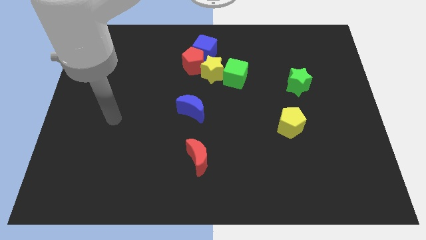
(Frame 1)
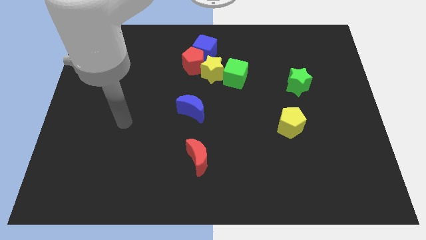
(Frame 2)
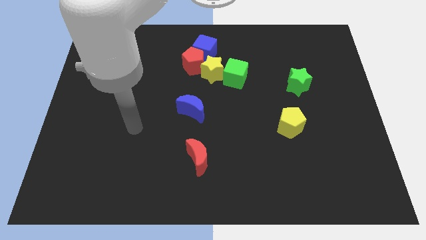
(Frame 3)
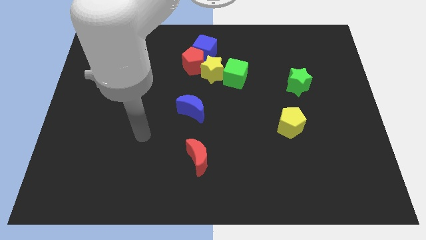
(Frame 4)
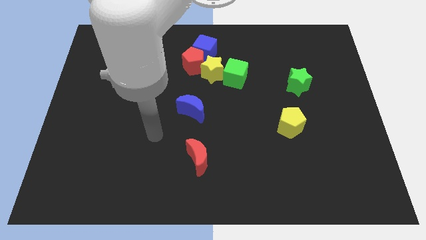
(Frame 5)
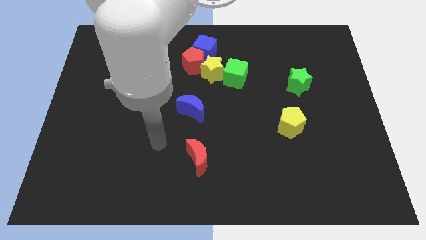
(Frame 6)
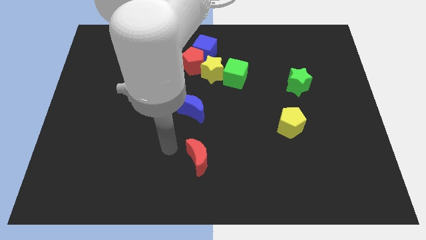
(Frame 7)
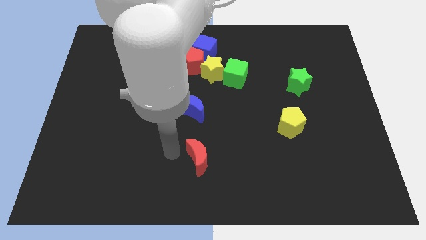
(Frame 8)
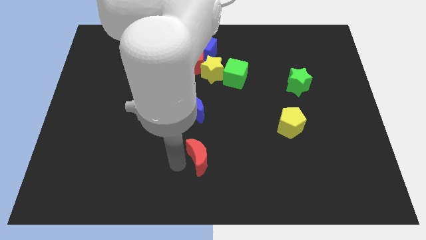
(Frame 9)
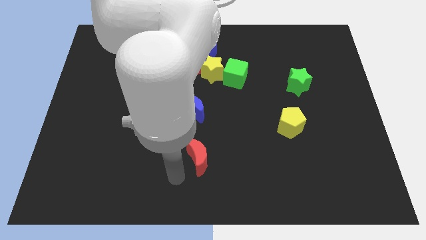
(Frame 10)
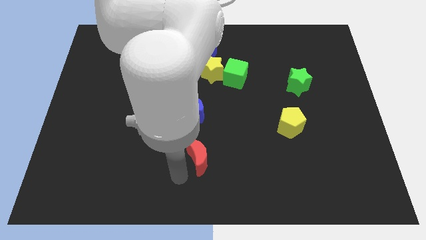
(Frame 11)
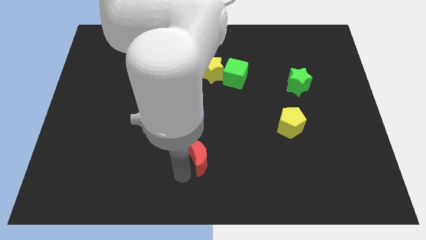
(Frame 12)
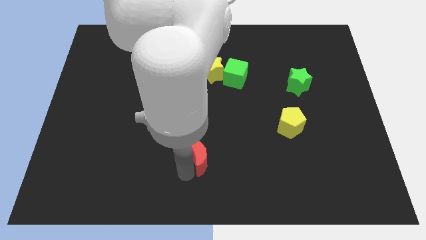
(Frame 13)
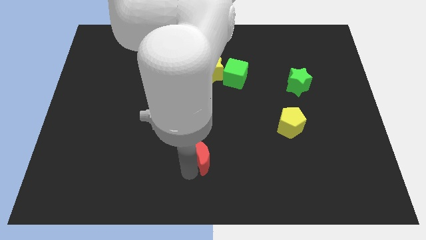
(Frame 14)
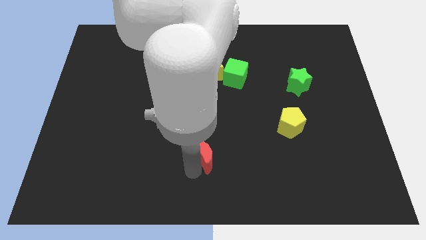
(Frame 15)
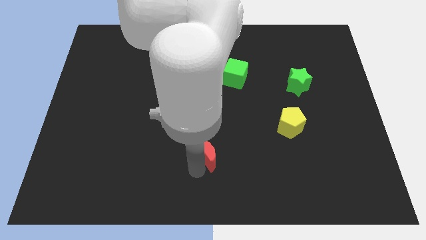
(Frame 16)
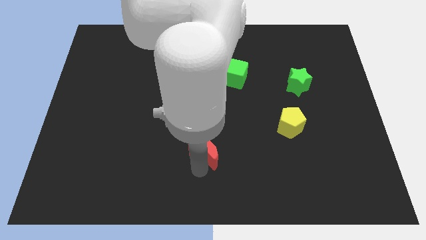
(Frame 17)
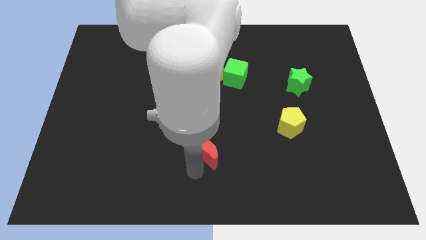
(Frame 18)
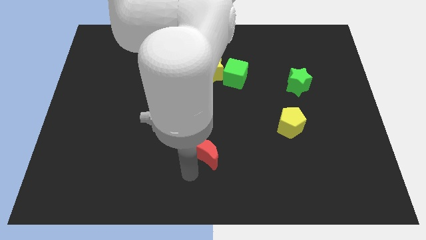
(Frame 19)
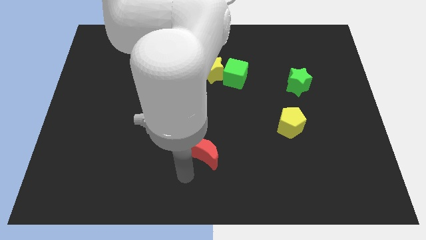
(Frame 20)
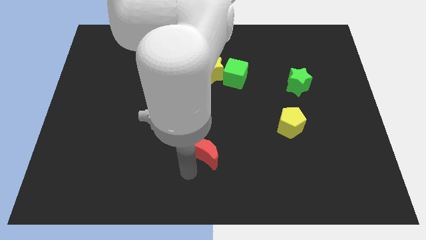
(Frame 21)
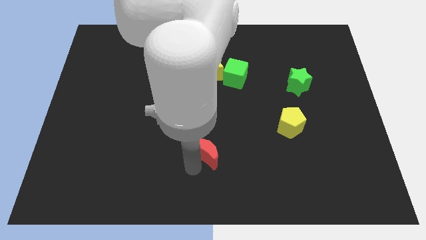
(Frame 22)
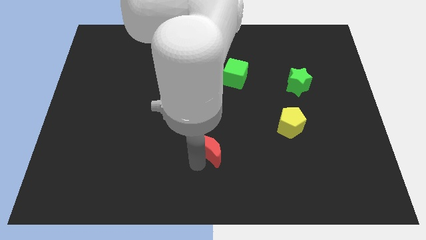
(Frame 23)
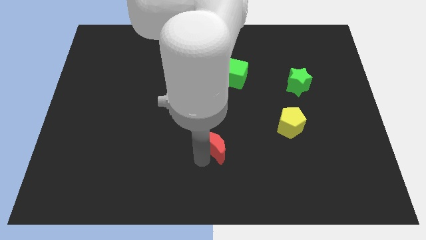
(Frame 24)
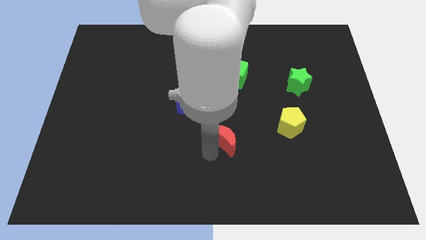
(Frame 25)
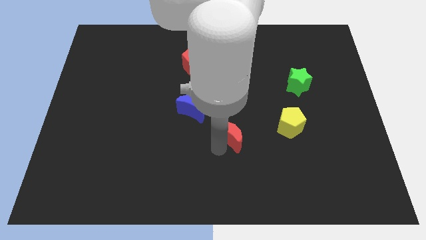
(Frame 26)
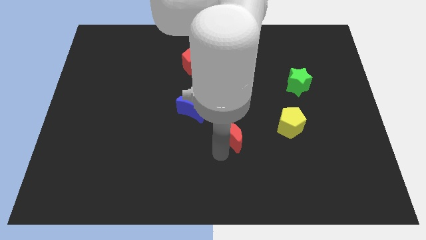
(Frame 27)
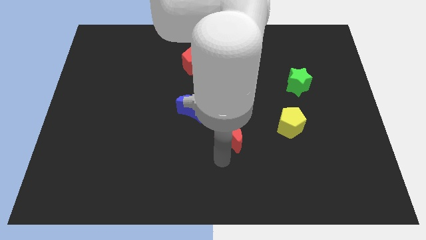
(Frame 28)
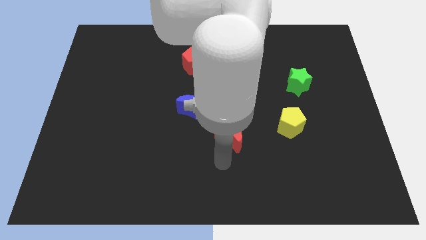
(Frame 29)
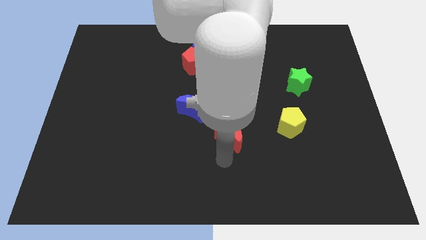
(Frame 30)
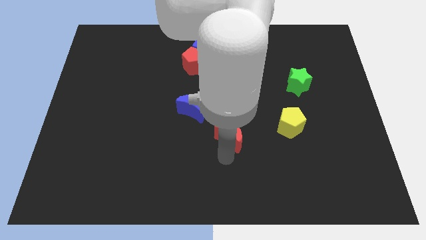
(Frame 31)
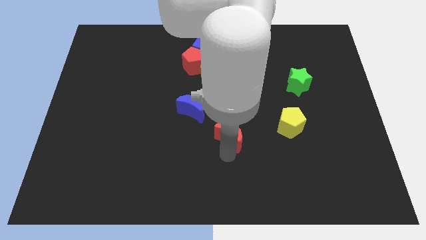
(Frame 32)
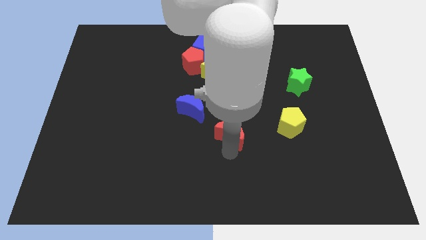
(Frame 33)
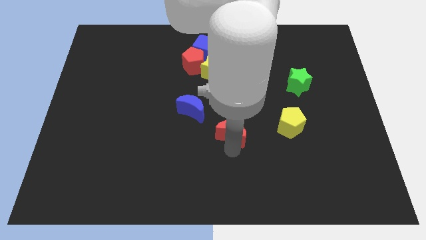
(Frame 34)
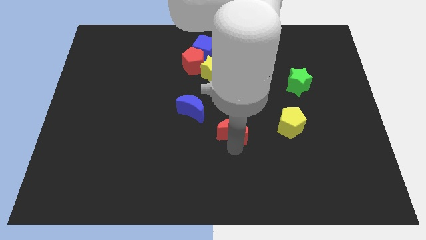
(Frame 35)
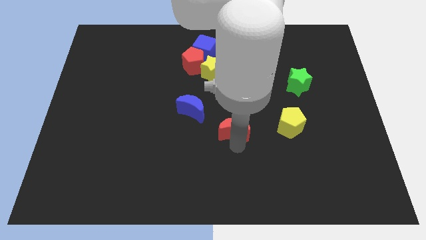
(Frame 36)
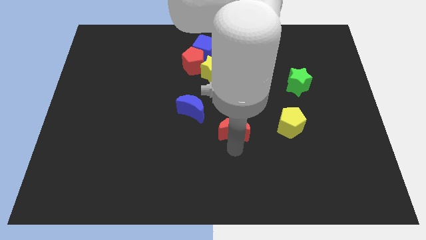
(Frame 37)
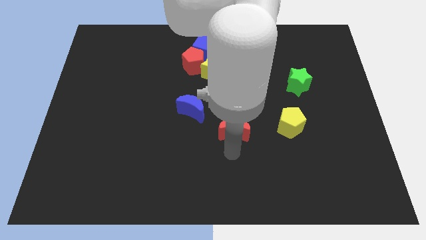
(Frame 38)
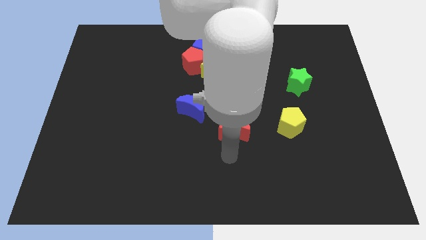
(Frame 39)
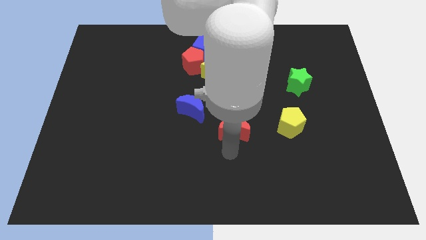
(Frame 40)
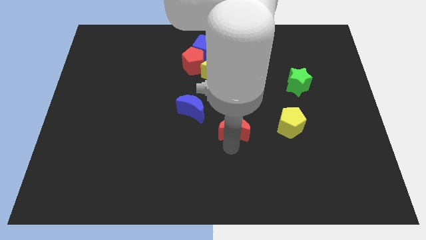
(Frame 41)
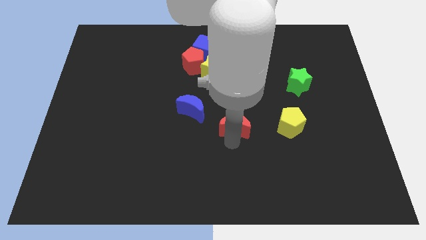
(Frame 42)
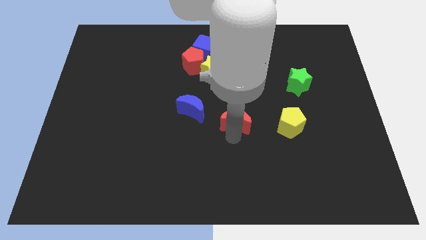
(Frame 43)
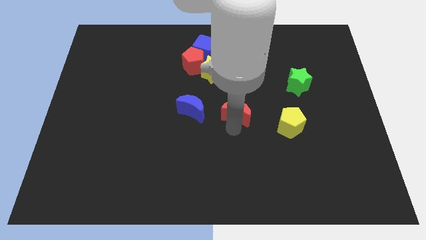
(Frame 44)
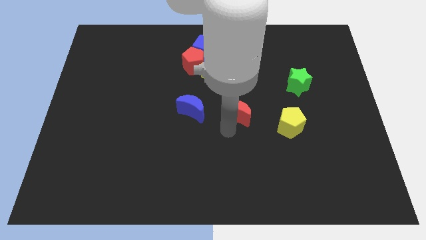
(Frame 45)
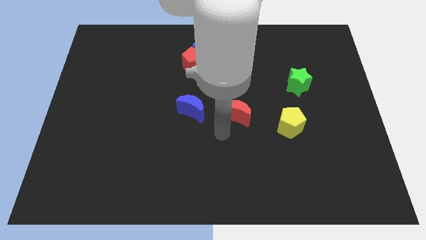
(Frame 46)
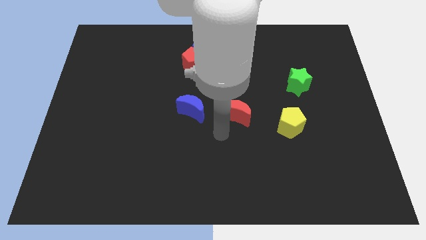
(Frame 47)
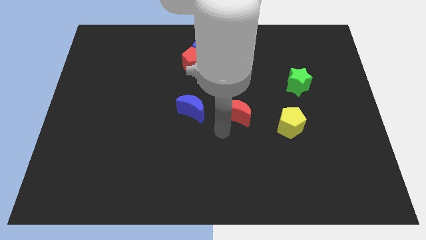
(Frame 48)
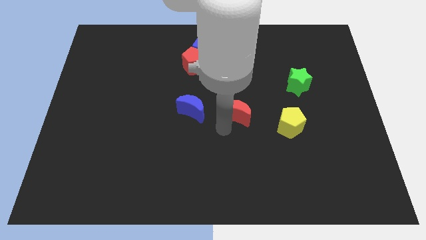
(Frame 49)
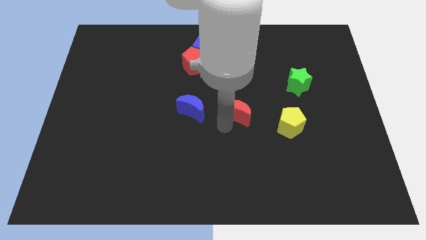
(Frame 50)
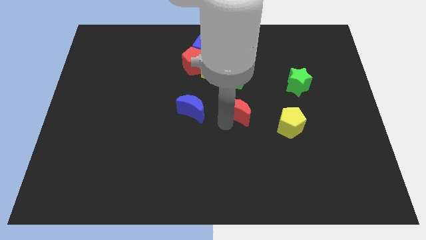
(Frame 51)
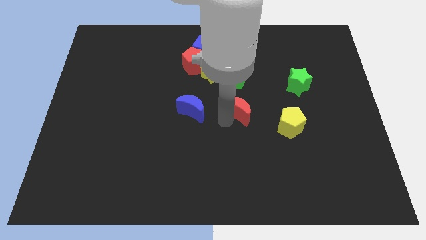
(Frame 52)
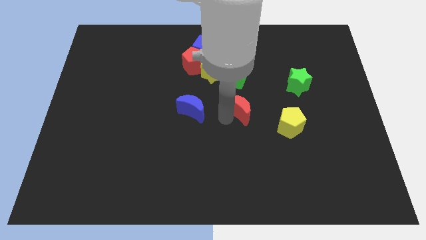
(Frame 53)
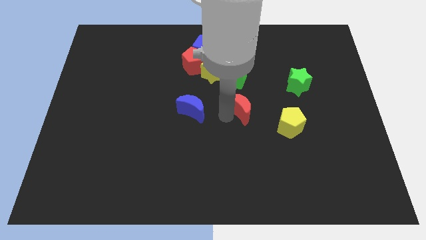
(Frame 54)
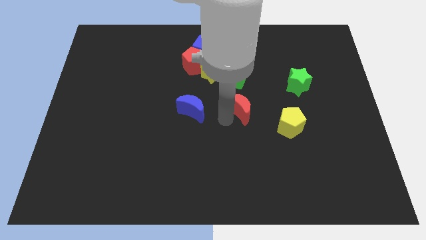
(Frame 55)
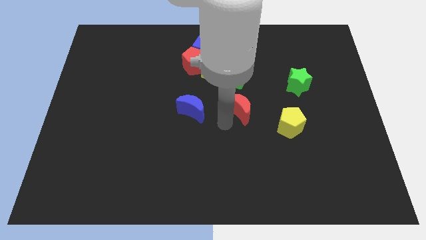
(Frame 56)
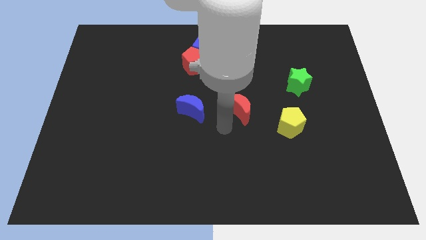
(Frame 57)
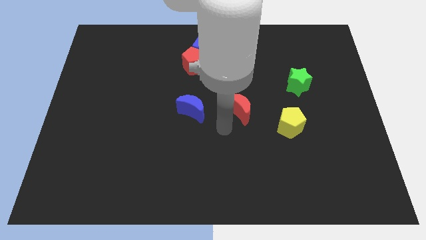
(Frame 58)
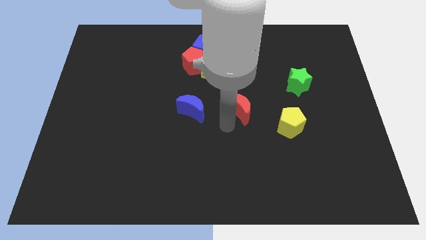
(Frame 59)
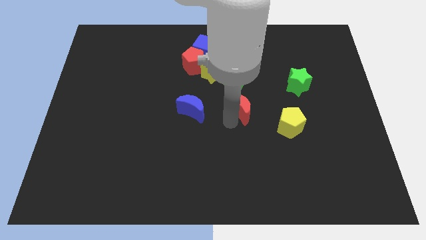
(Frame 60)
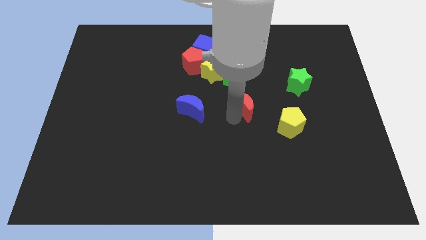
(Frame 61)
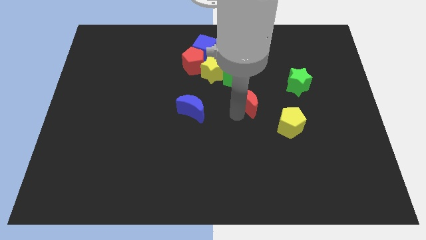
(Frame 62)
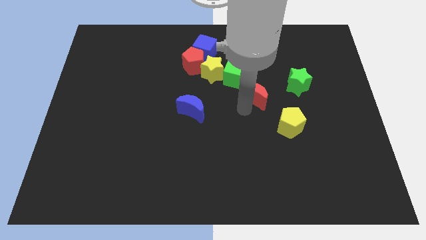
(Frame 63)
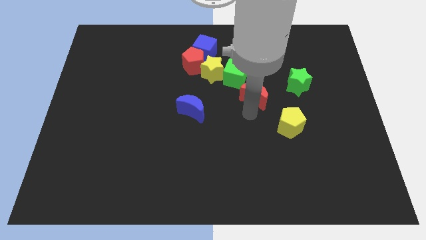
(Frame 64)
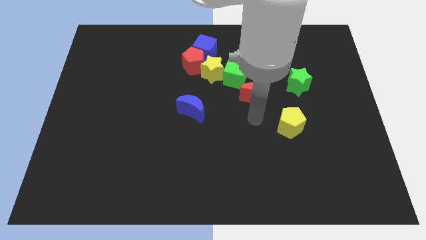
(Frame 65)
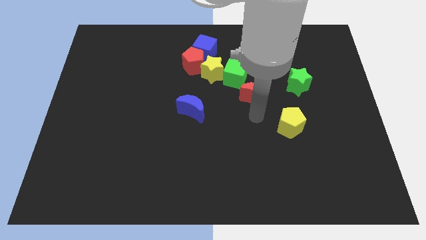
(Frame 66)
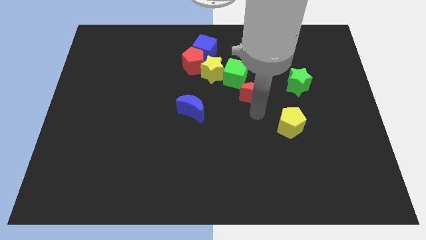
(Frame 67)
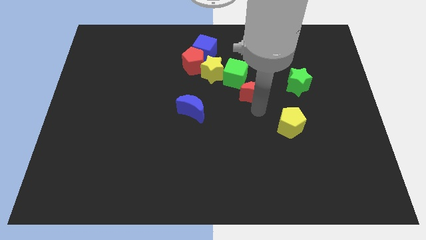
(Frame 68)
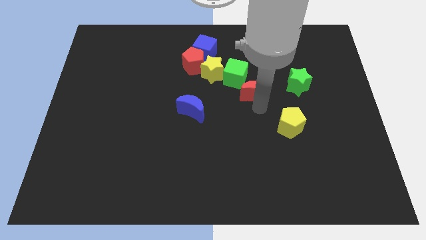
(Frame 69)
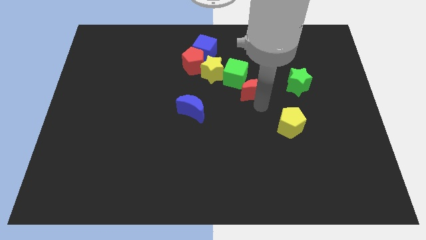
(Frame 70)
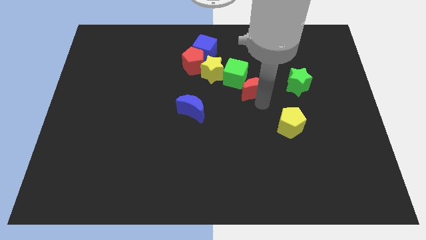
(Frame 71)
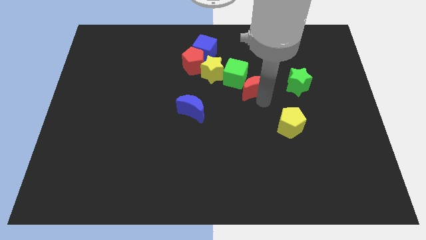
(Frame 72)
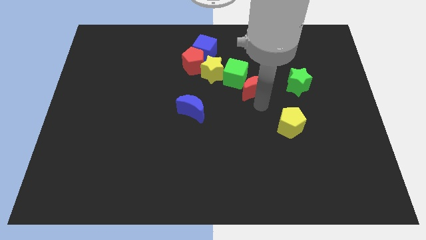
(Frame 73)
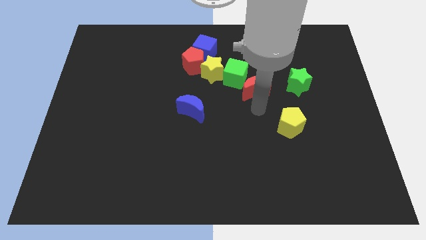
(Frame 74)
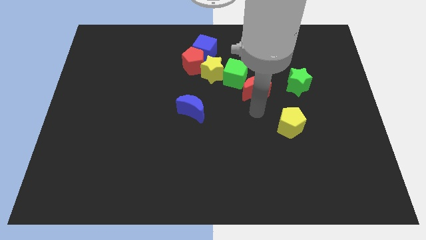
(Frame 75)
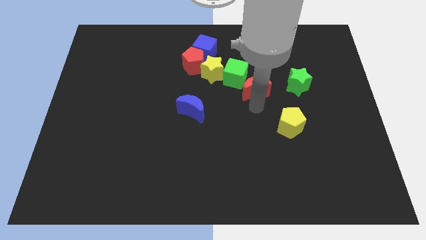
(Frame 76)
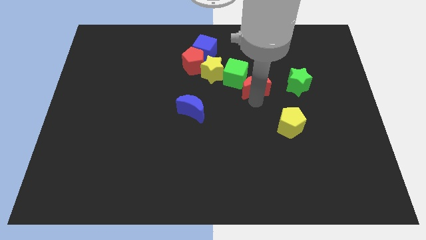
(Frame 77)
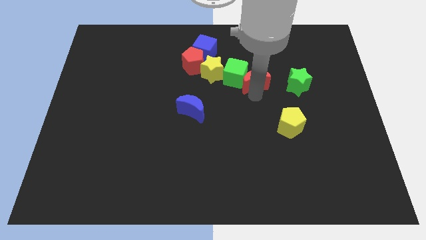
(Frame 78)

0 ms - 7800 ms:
push the red moon to the right of the yellow star
